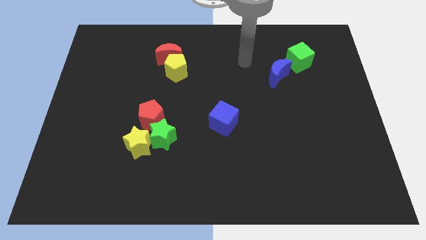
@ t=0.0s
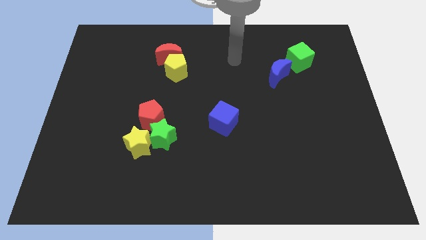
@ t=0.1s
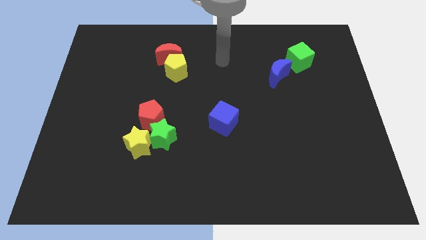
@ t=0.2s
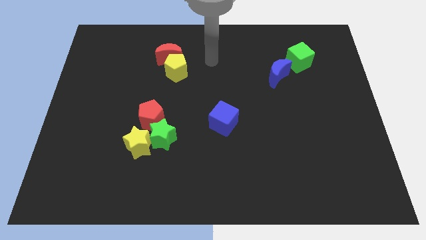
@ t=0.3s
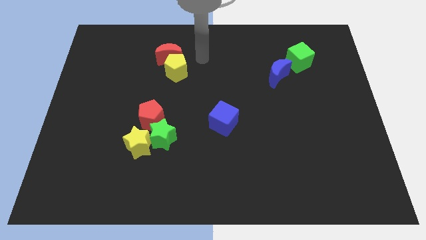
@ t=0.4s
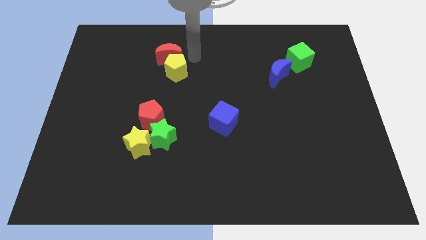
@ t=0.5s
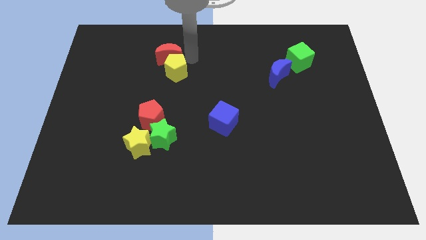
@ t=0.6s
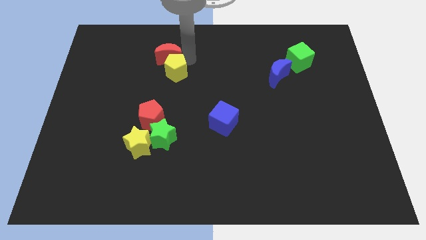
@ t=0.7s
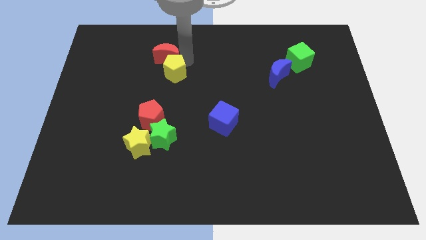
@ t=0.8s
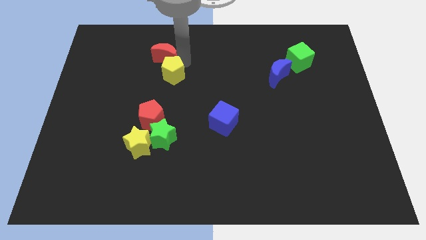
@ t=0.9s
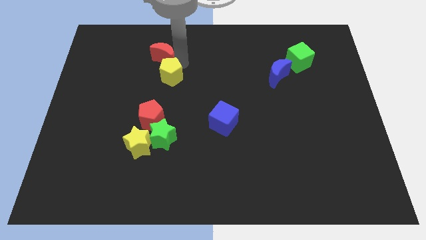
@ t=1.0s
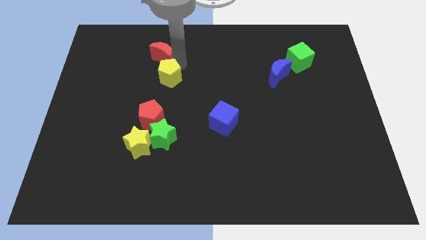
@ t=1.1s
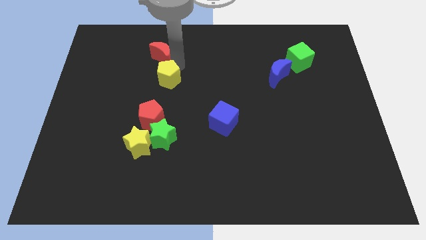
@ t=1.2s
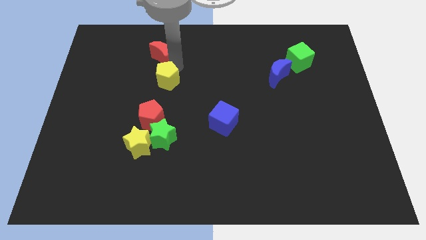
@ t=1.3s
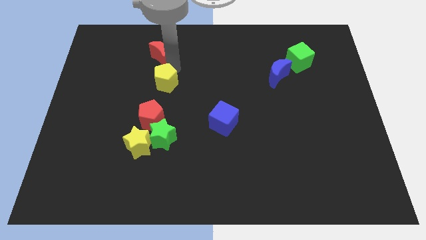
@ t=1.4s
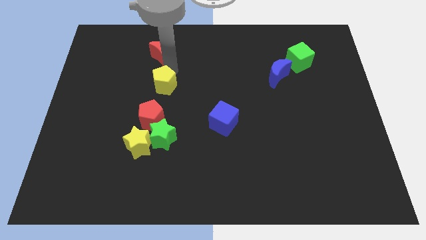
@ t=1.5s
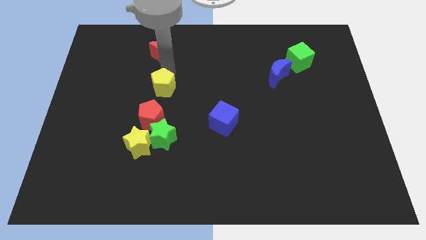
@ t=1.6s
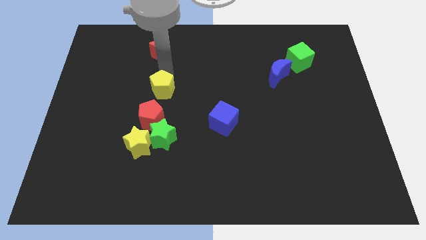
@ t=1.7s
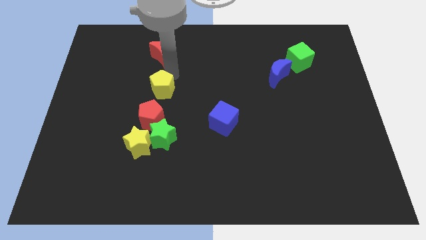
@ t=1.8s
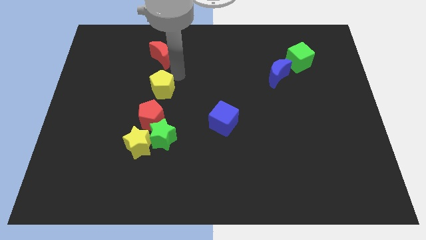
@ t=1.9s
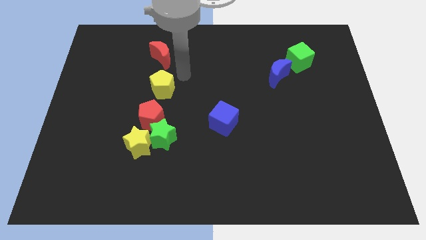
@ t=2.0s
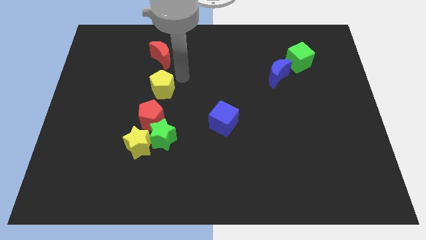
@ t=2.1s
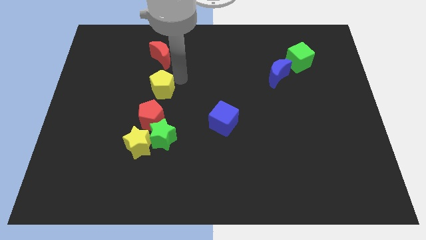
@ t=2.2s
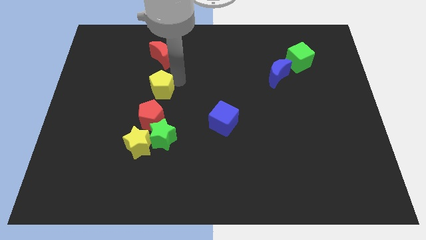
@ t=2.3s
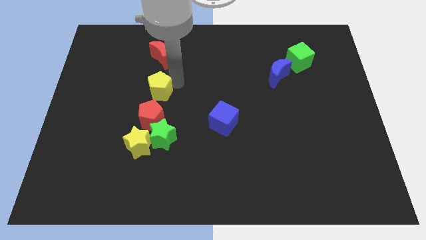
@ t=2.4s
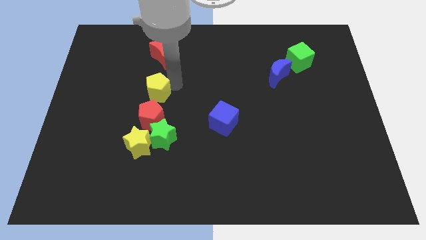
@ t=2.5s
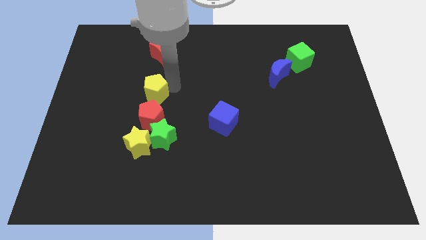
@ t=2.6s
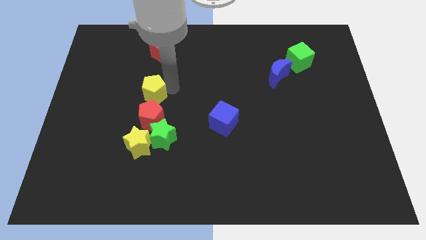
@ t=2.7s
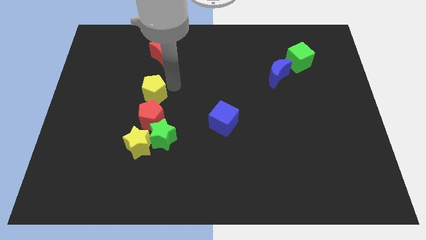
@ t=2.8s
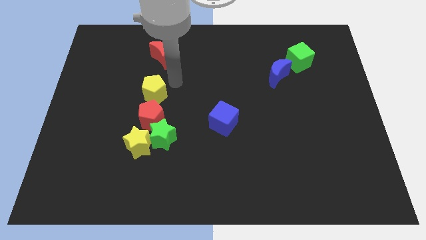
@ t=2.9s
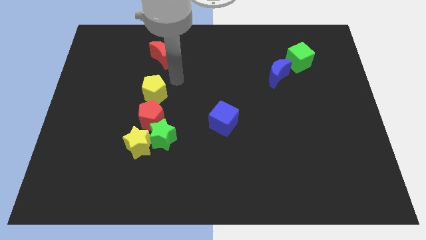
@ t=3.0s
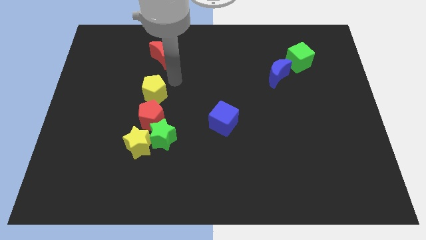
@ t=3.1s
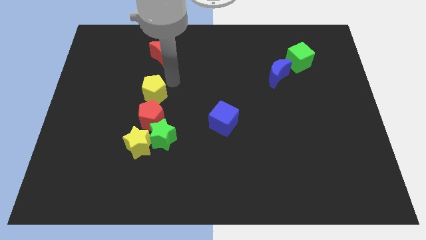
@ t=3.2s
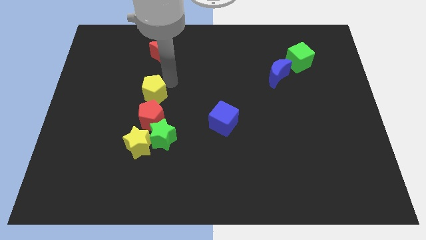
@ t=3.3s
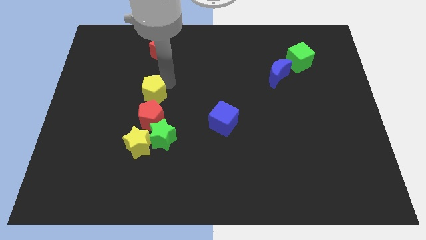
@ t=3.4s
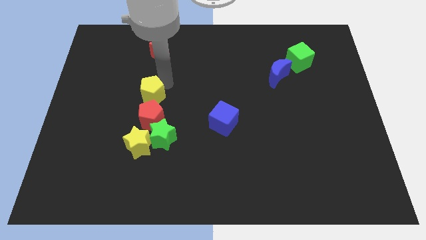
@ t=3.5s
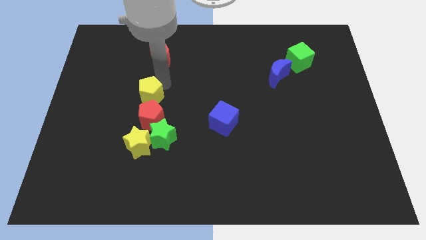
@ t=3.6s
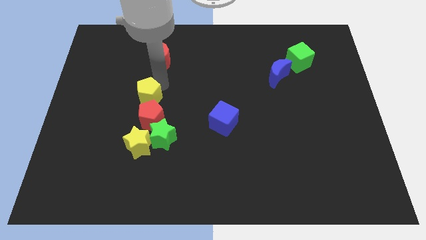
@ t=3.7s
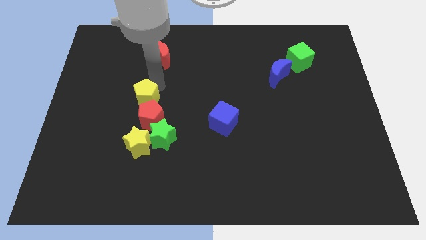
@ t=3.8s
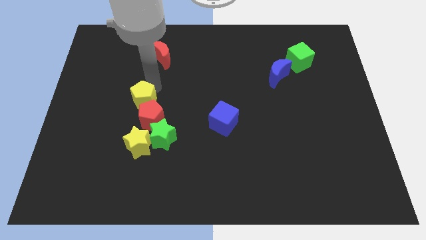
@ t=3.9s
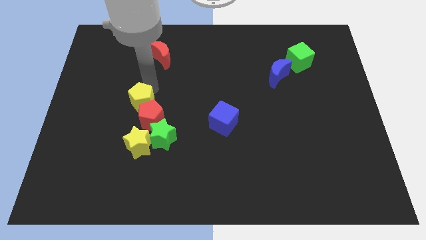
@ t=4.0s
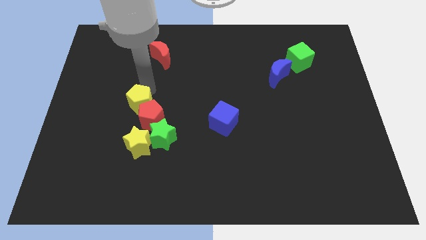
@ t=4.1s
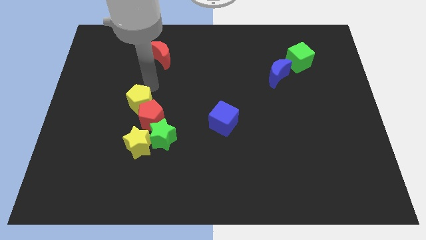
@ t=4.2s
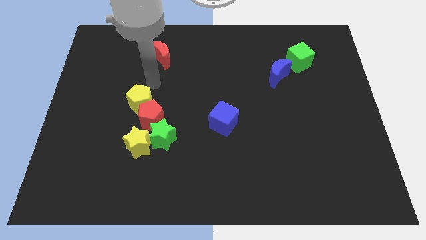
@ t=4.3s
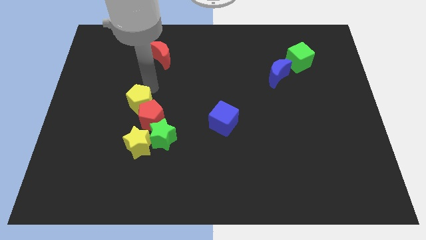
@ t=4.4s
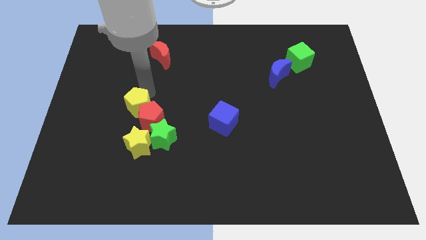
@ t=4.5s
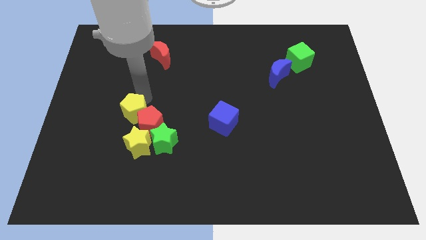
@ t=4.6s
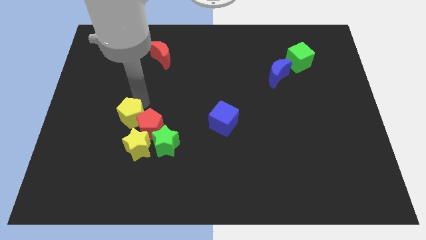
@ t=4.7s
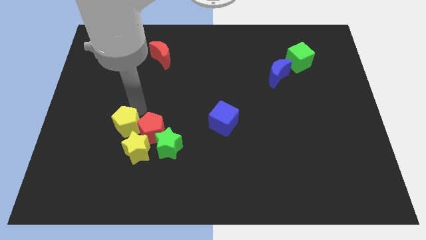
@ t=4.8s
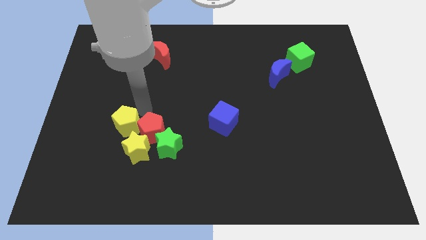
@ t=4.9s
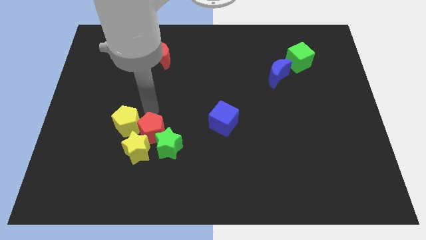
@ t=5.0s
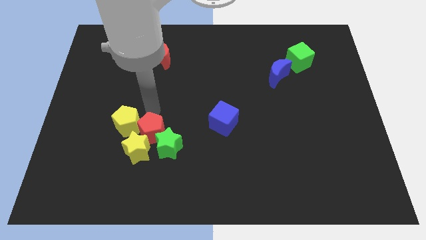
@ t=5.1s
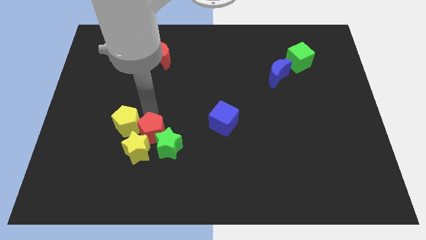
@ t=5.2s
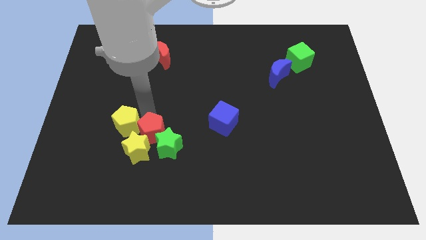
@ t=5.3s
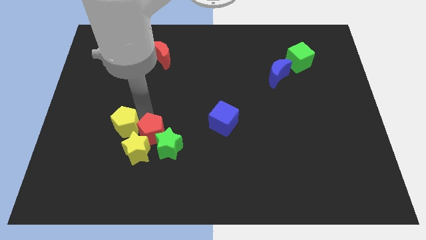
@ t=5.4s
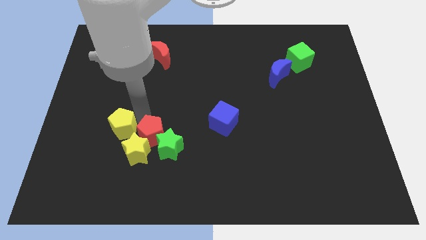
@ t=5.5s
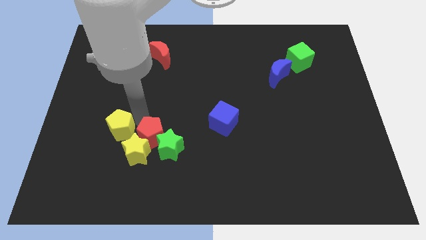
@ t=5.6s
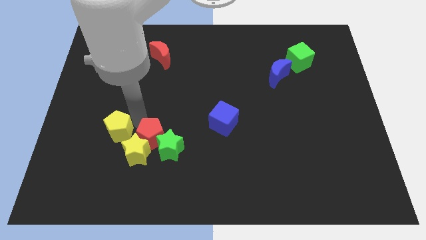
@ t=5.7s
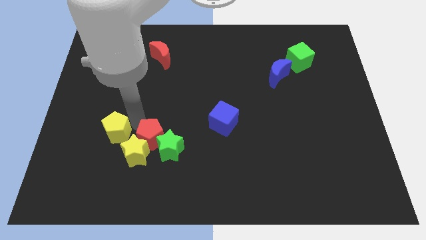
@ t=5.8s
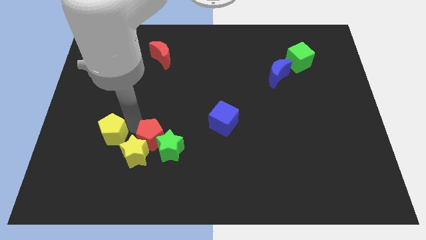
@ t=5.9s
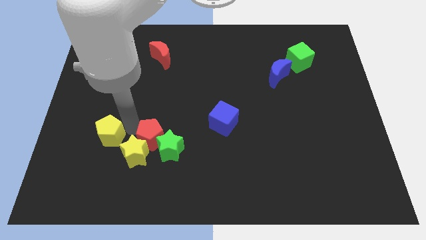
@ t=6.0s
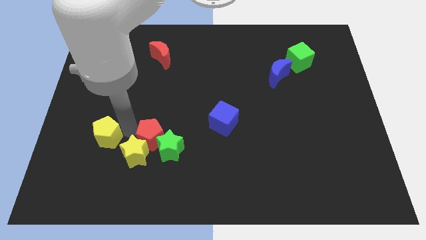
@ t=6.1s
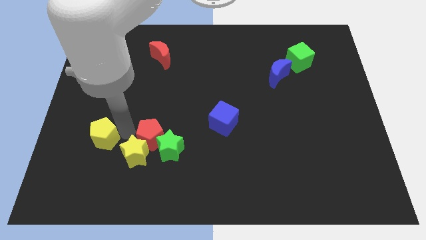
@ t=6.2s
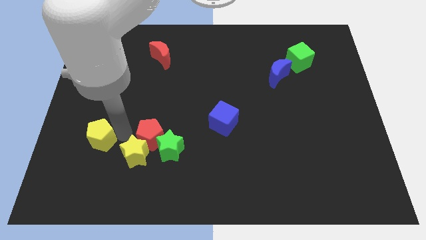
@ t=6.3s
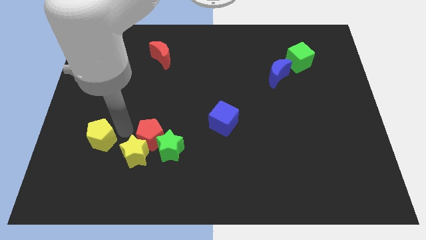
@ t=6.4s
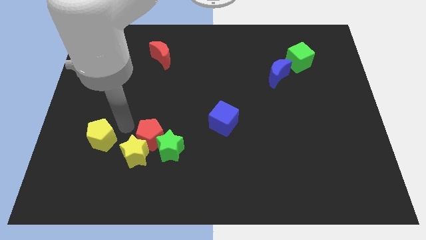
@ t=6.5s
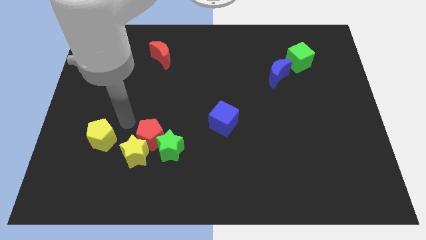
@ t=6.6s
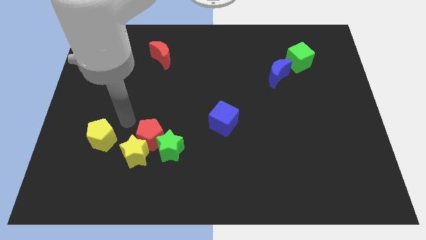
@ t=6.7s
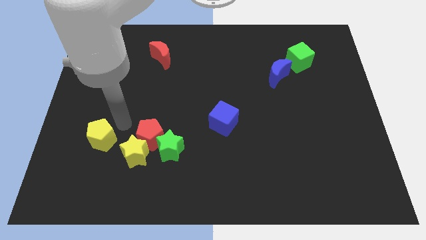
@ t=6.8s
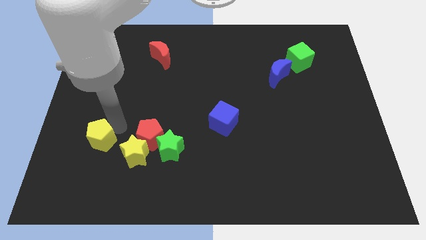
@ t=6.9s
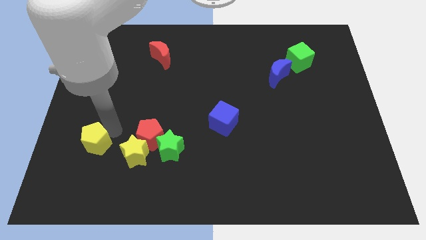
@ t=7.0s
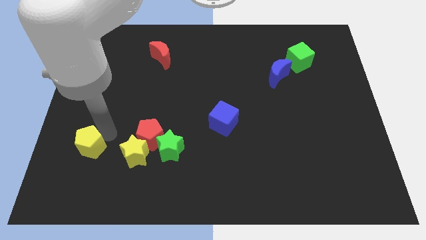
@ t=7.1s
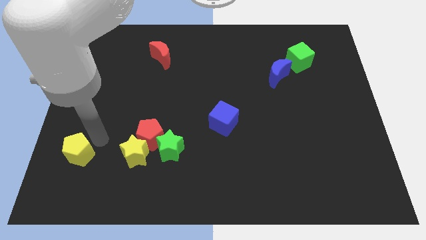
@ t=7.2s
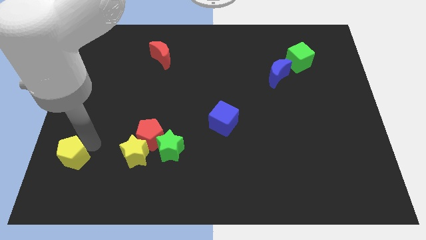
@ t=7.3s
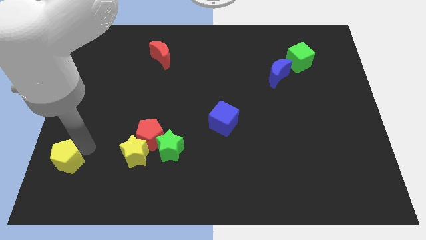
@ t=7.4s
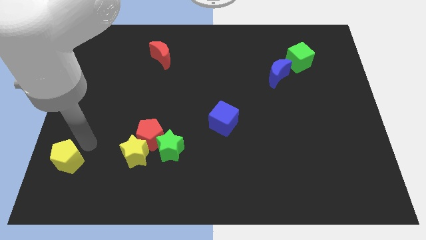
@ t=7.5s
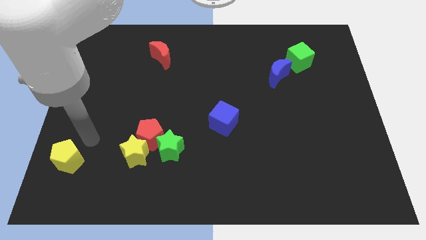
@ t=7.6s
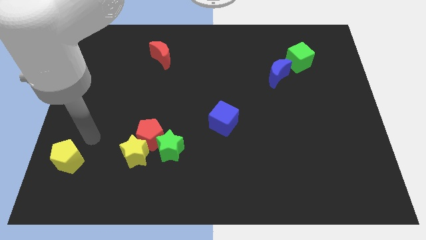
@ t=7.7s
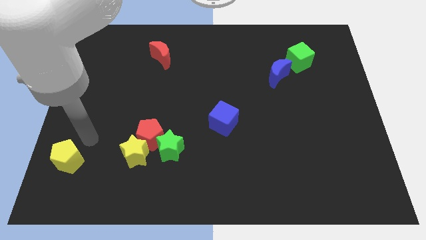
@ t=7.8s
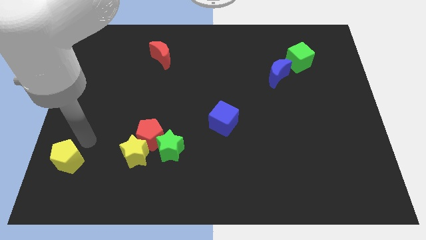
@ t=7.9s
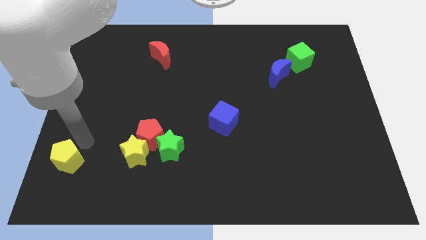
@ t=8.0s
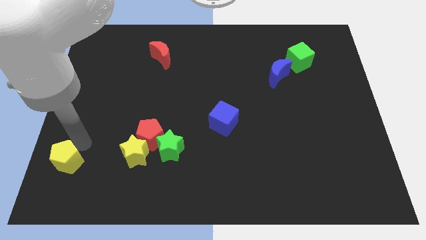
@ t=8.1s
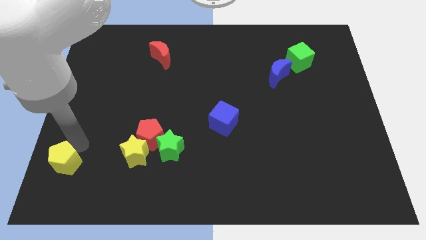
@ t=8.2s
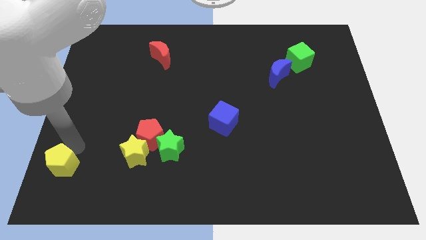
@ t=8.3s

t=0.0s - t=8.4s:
slide the yellow pentagon to the lower left corner
